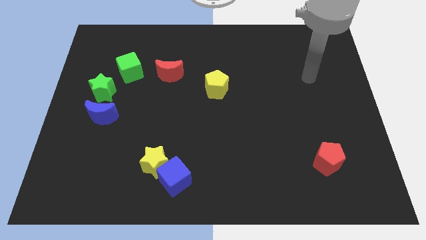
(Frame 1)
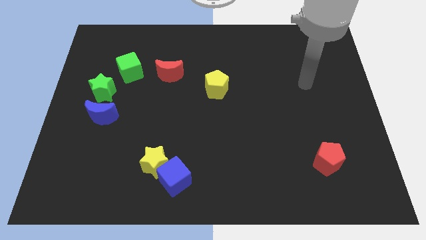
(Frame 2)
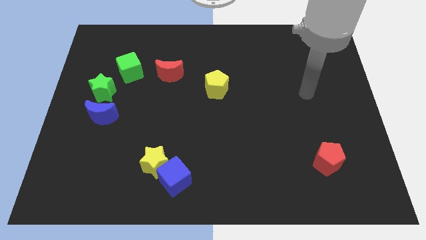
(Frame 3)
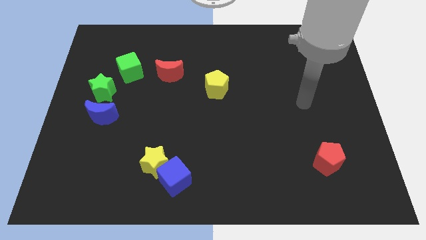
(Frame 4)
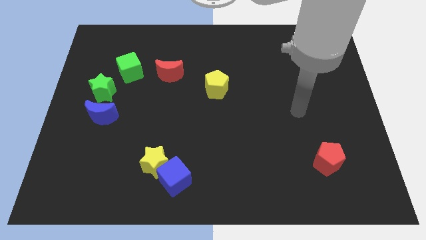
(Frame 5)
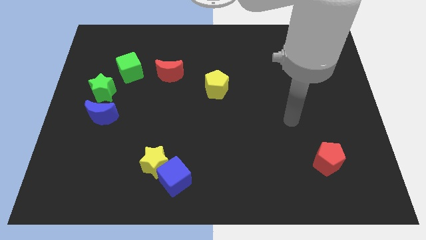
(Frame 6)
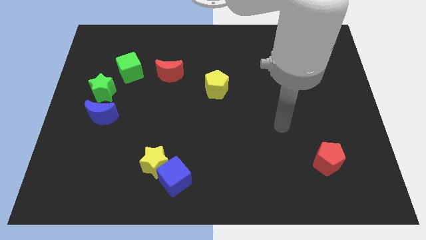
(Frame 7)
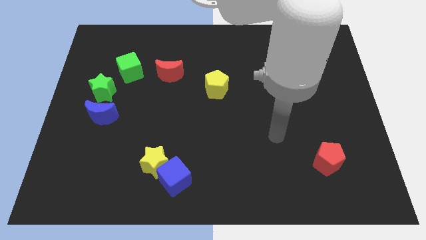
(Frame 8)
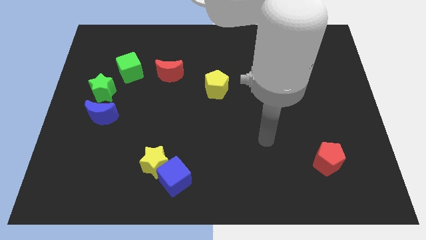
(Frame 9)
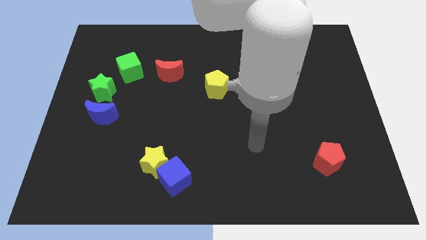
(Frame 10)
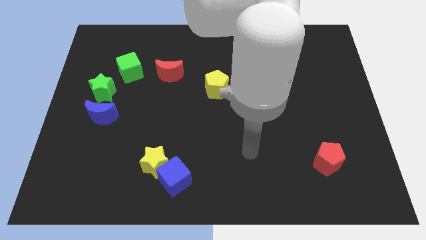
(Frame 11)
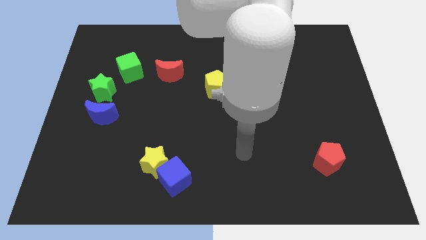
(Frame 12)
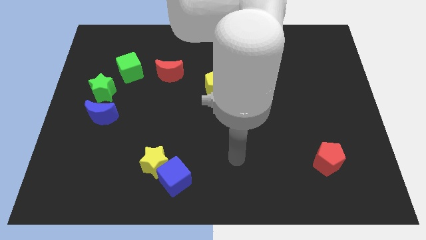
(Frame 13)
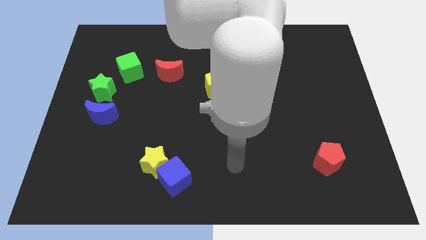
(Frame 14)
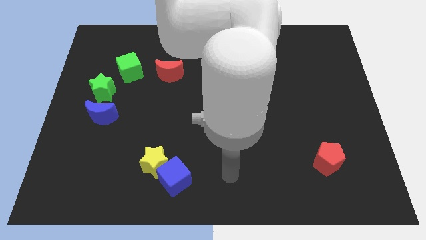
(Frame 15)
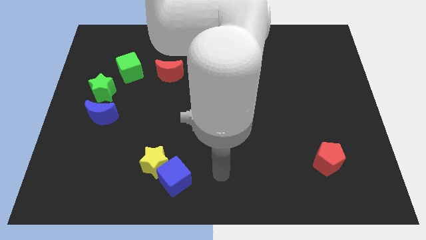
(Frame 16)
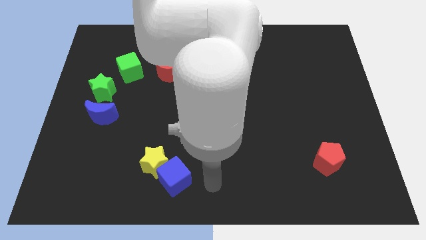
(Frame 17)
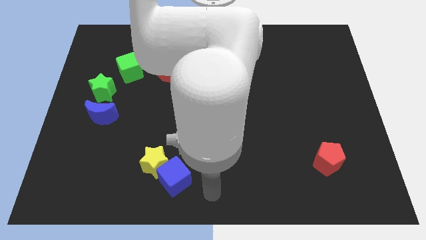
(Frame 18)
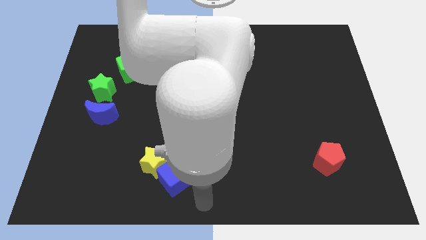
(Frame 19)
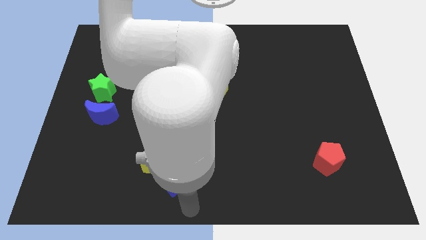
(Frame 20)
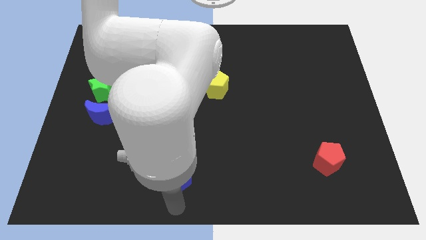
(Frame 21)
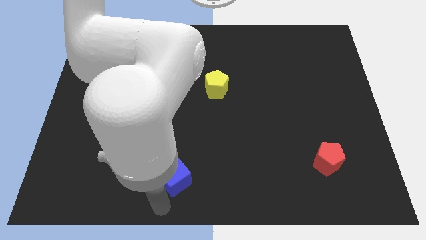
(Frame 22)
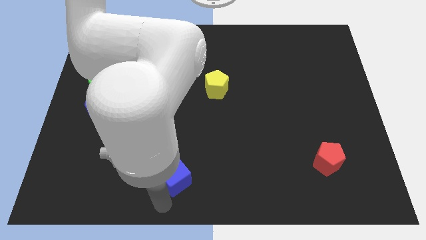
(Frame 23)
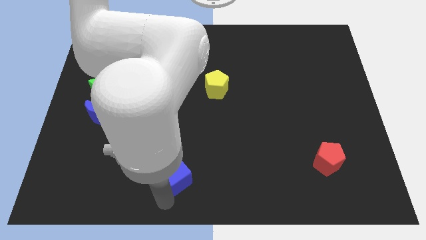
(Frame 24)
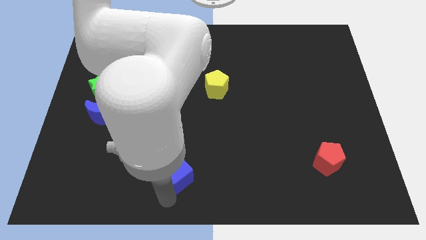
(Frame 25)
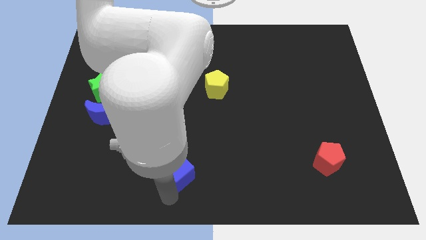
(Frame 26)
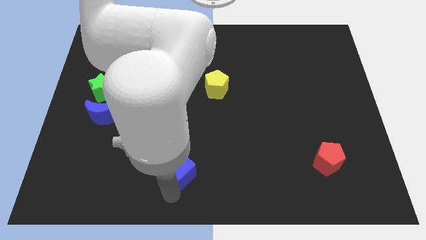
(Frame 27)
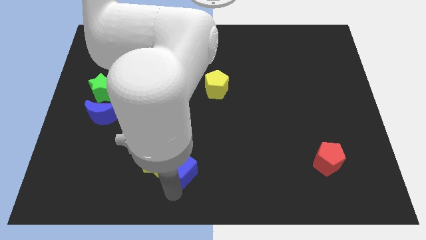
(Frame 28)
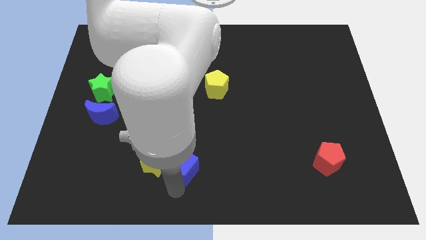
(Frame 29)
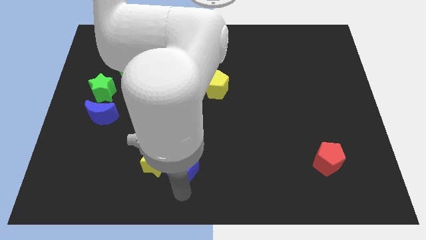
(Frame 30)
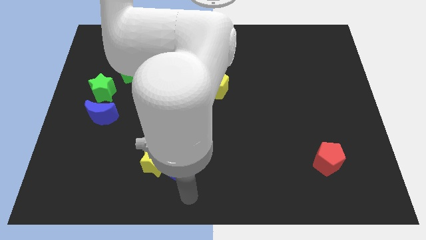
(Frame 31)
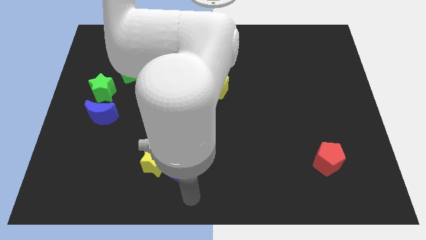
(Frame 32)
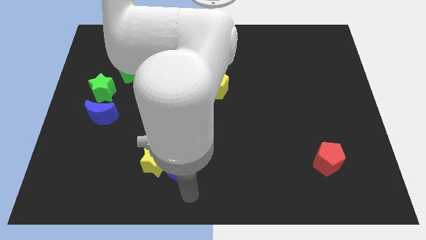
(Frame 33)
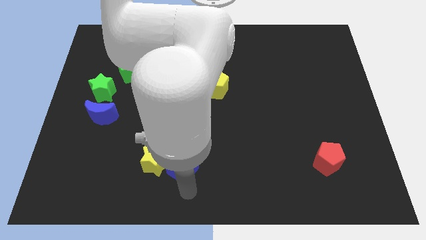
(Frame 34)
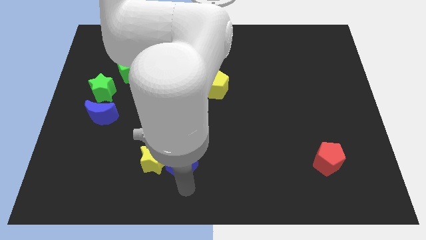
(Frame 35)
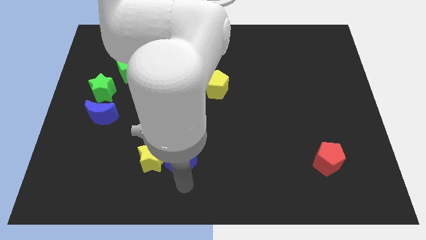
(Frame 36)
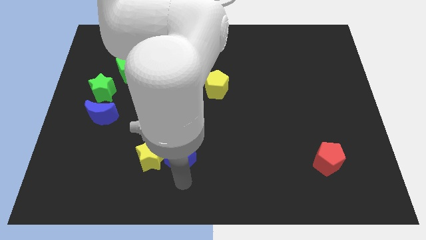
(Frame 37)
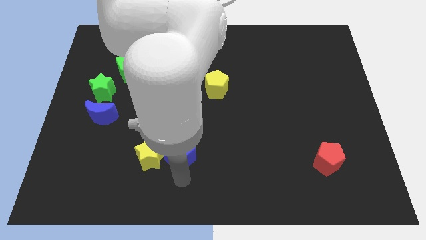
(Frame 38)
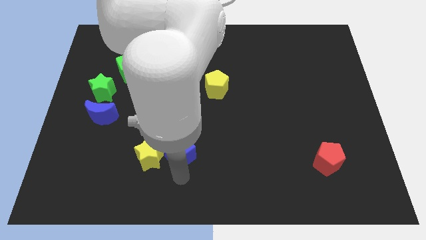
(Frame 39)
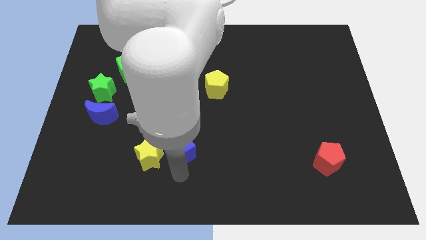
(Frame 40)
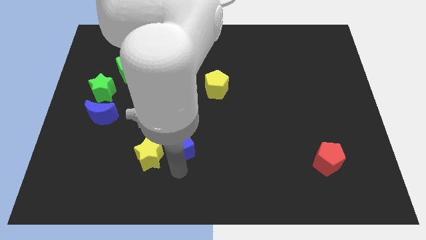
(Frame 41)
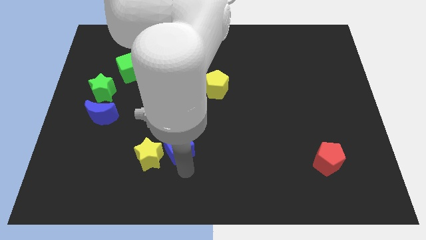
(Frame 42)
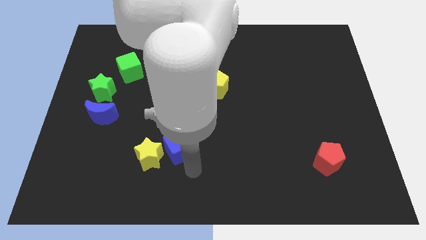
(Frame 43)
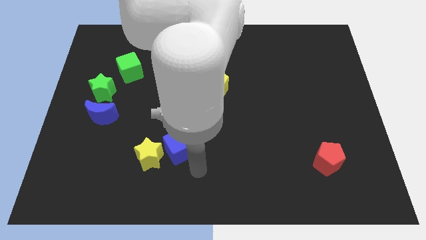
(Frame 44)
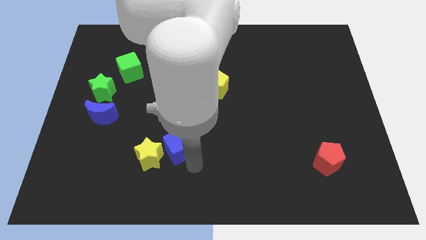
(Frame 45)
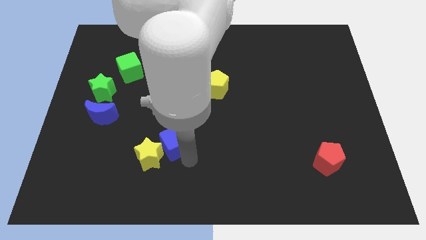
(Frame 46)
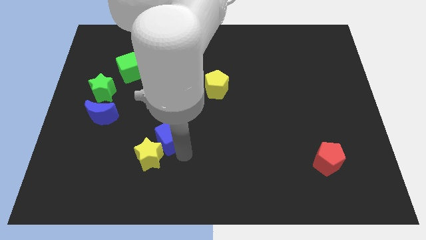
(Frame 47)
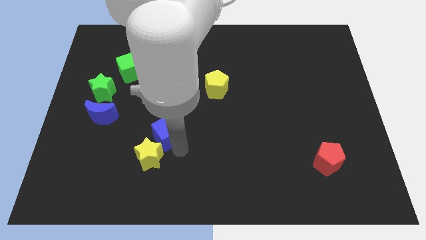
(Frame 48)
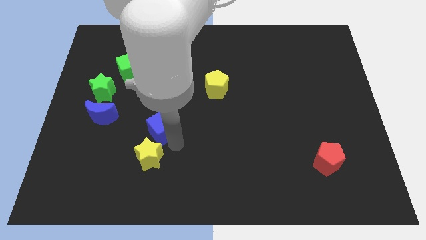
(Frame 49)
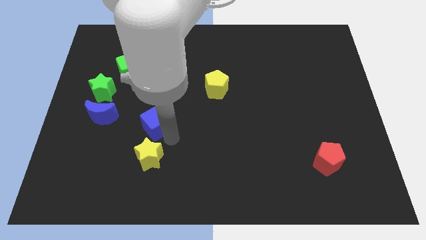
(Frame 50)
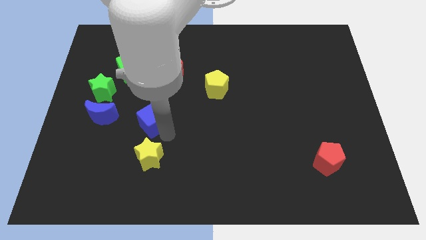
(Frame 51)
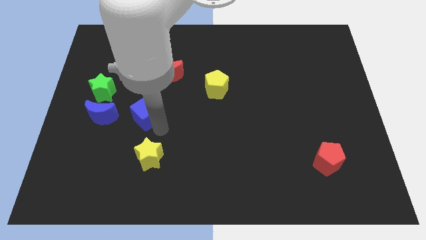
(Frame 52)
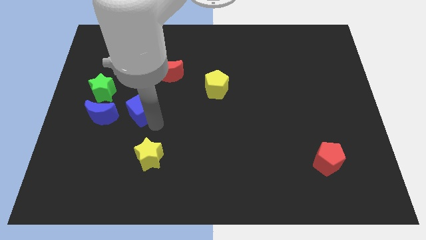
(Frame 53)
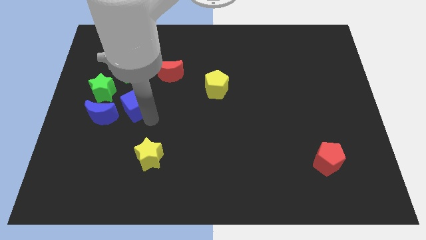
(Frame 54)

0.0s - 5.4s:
move the blue cube diagonally up and to the right of the blue moon
